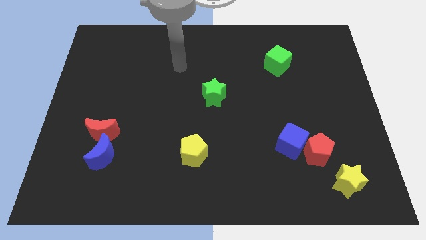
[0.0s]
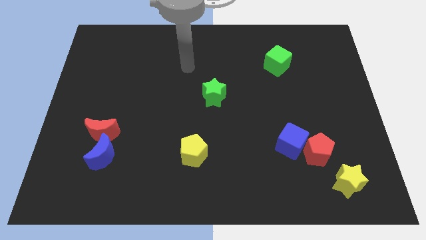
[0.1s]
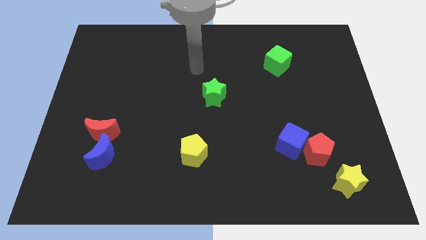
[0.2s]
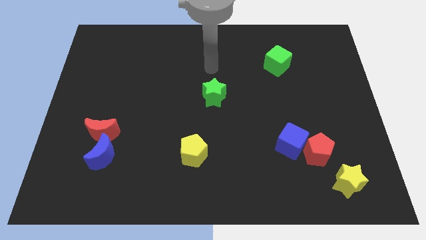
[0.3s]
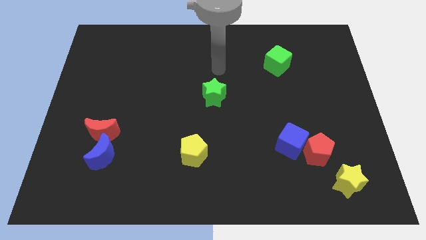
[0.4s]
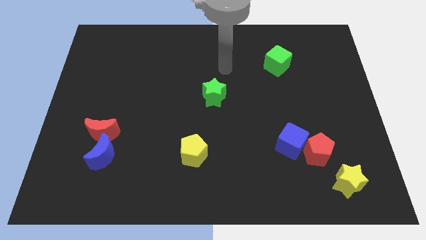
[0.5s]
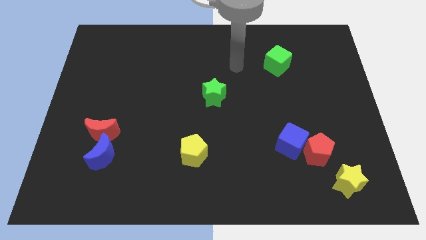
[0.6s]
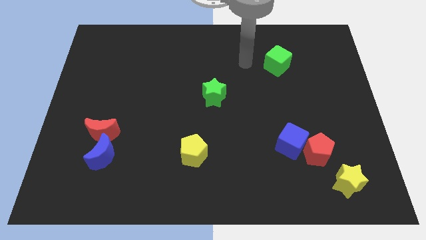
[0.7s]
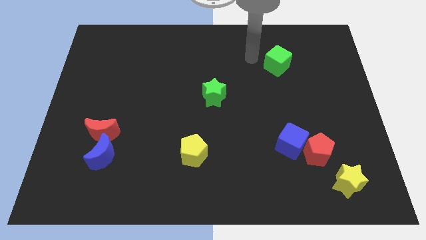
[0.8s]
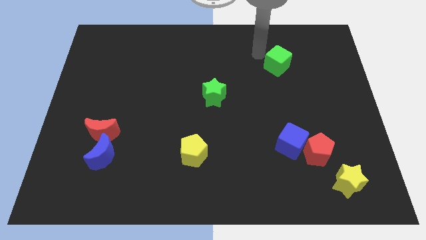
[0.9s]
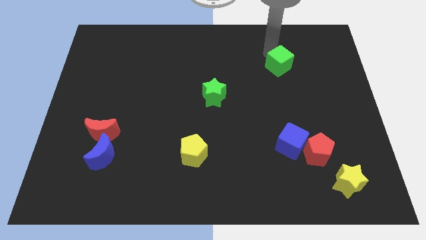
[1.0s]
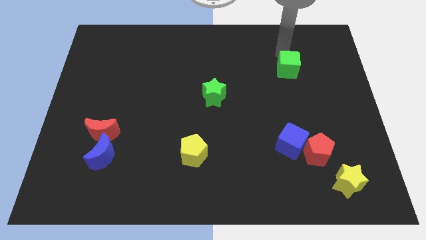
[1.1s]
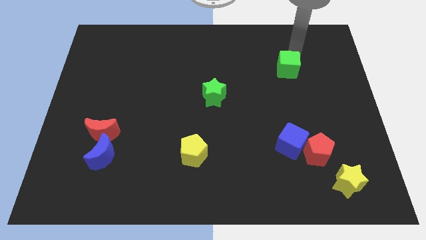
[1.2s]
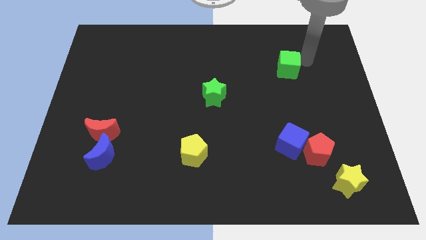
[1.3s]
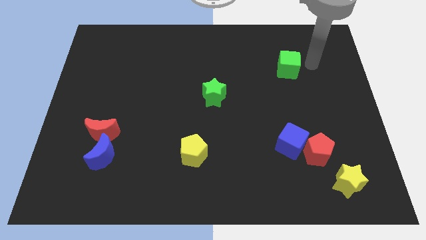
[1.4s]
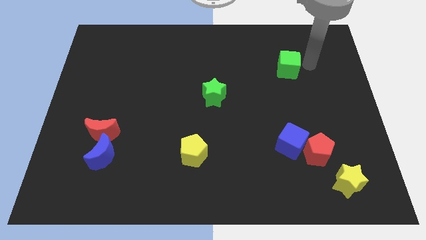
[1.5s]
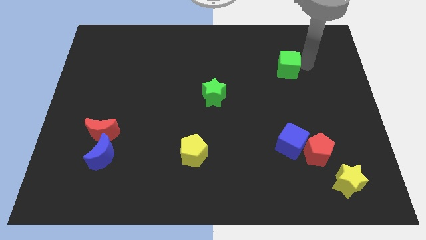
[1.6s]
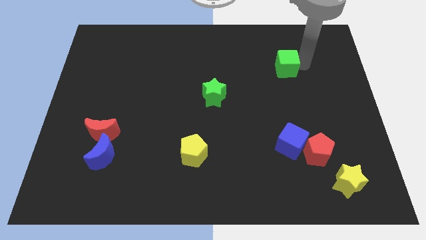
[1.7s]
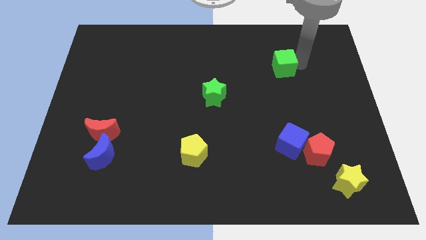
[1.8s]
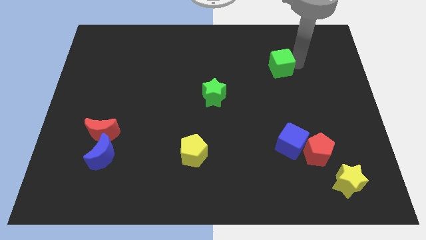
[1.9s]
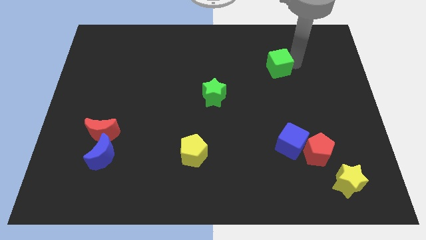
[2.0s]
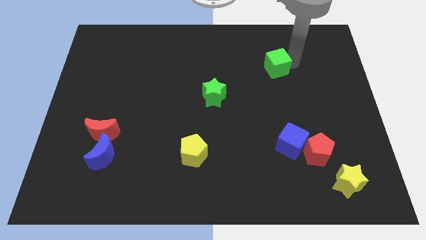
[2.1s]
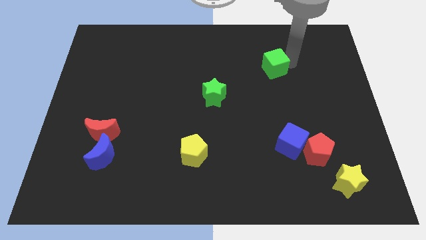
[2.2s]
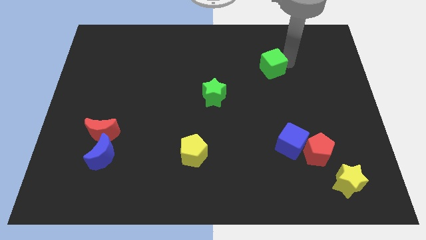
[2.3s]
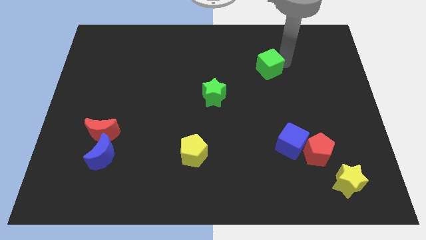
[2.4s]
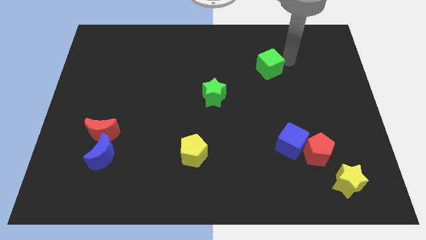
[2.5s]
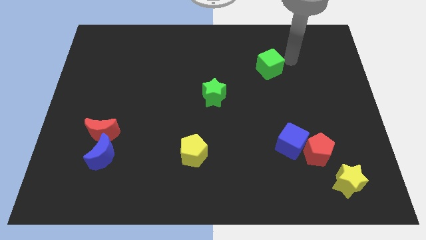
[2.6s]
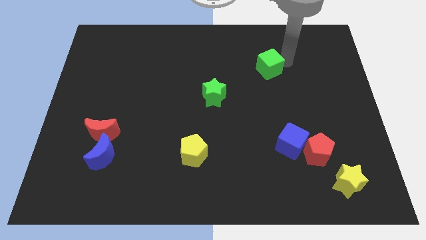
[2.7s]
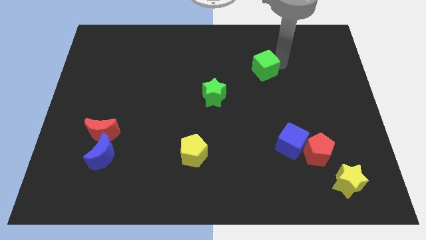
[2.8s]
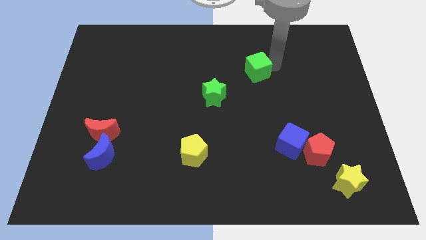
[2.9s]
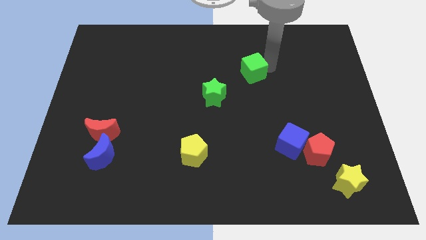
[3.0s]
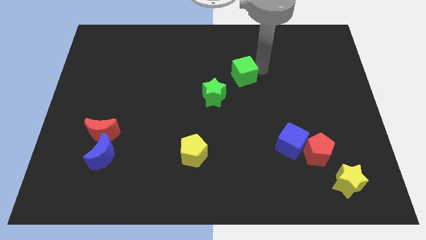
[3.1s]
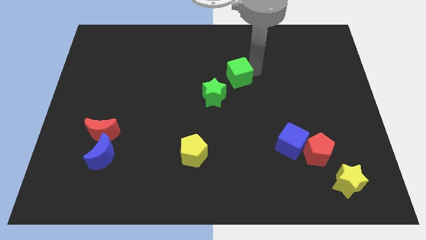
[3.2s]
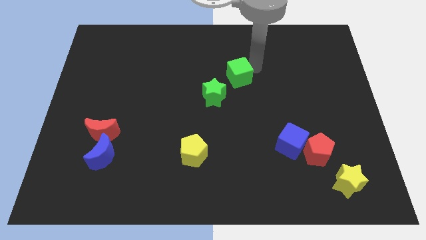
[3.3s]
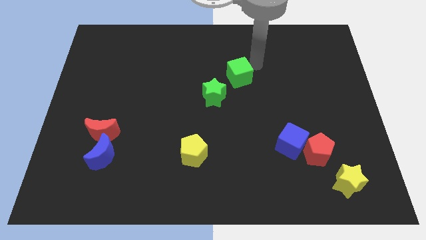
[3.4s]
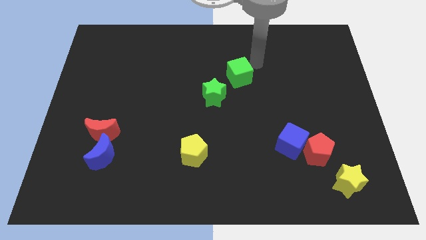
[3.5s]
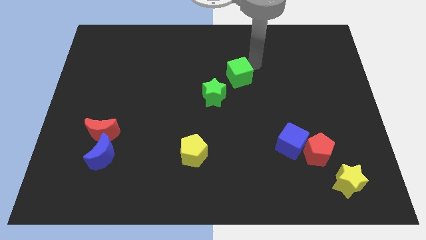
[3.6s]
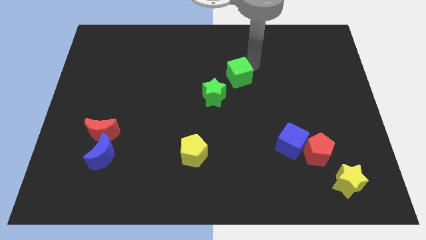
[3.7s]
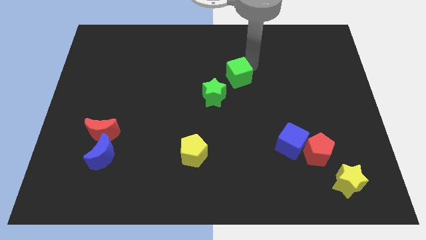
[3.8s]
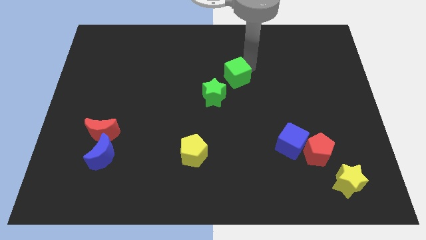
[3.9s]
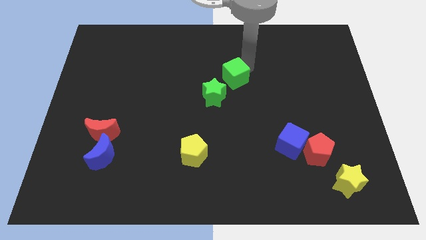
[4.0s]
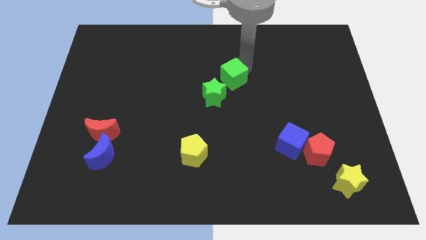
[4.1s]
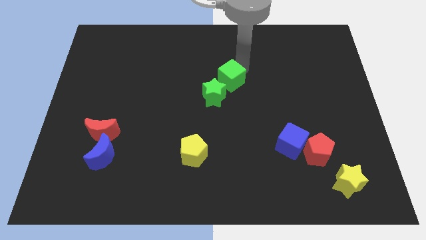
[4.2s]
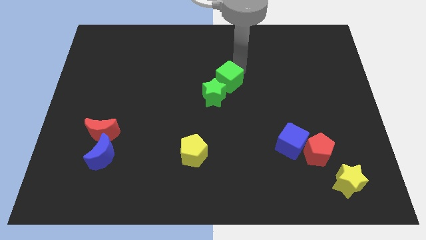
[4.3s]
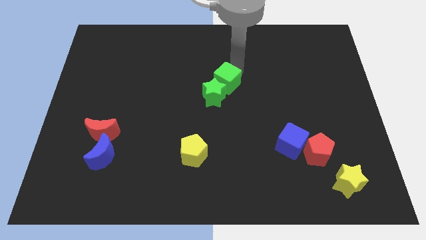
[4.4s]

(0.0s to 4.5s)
move the green cube next to the green star

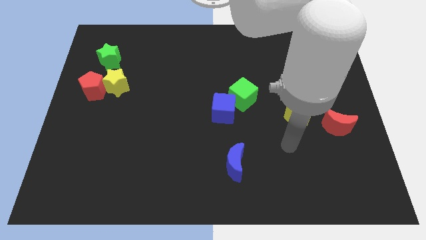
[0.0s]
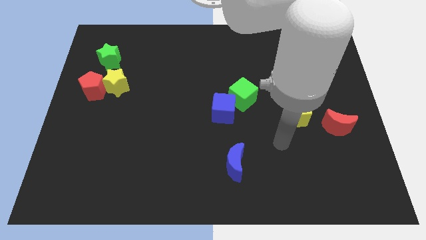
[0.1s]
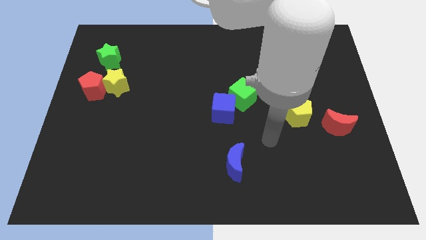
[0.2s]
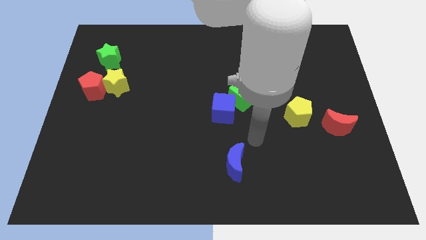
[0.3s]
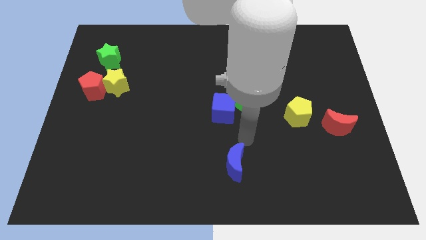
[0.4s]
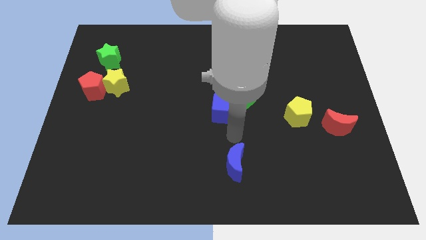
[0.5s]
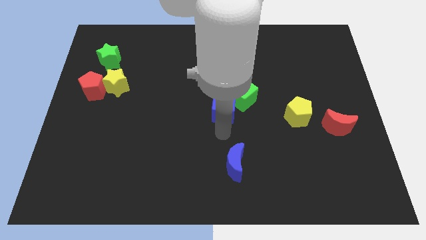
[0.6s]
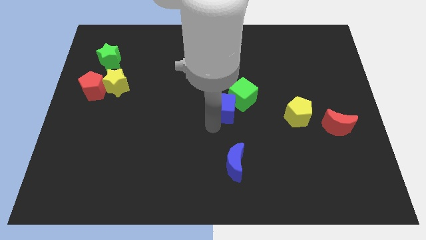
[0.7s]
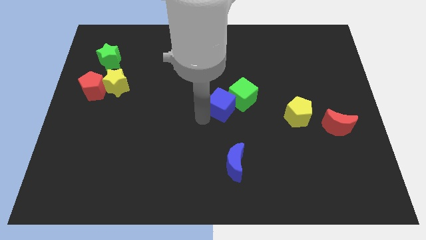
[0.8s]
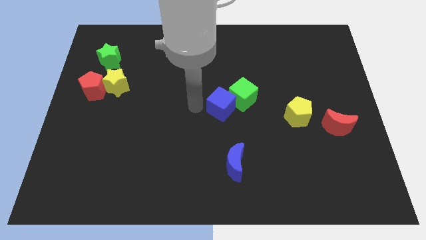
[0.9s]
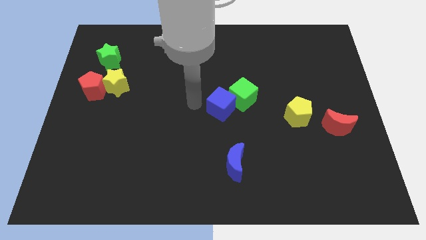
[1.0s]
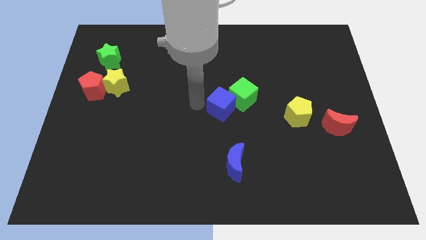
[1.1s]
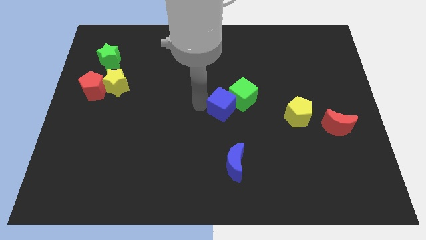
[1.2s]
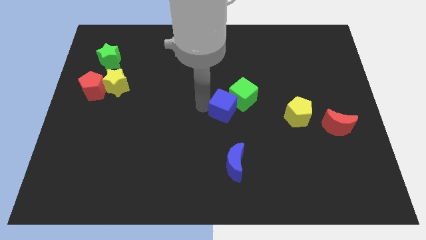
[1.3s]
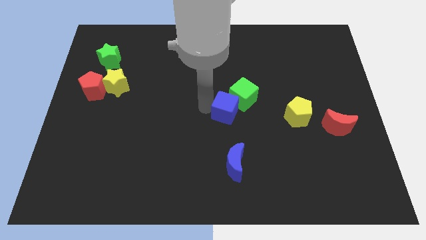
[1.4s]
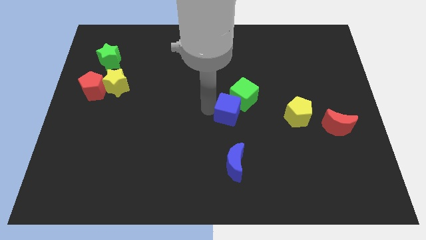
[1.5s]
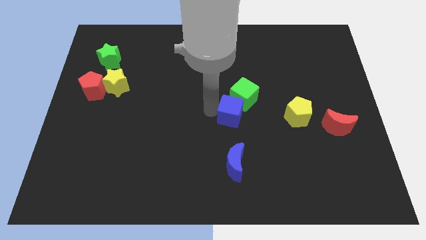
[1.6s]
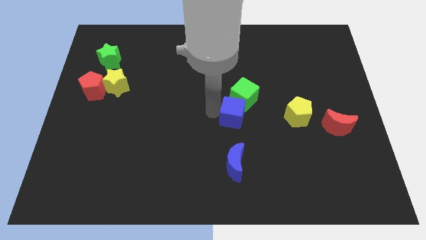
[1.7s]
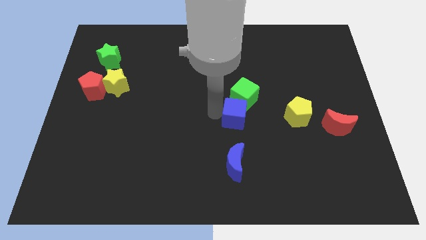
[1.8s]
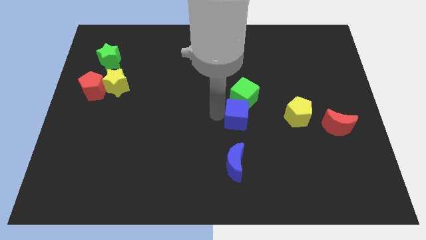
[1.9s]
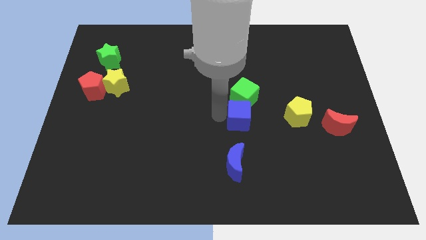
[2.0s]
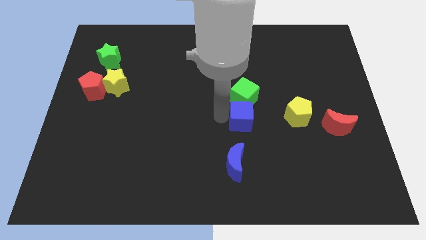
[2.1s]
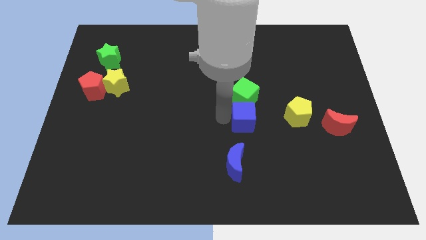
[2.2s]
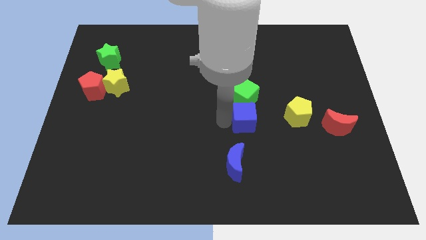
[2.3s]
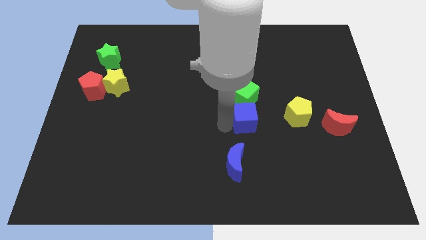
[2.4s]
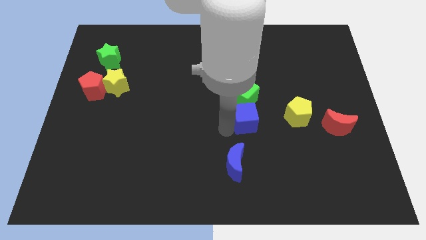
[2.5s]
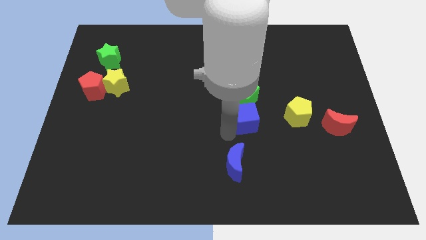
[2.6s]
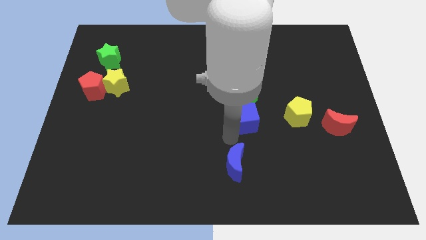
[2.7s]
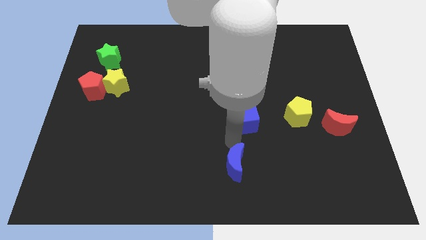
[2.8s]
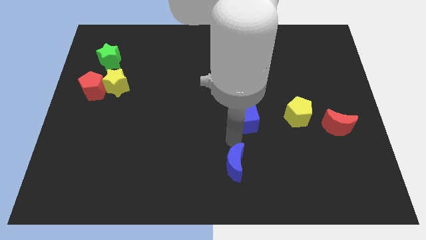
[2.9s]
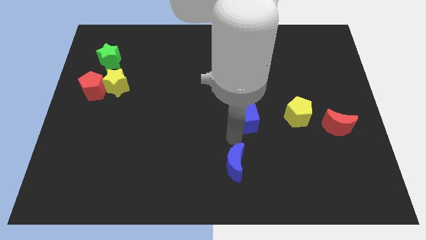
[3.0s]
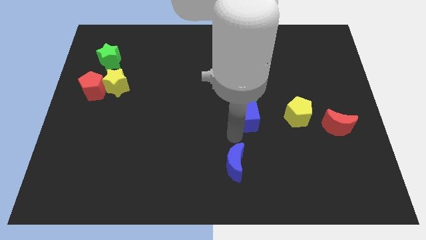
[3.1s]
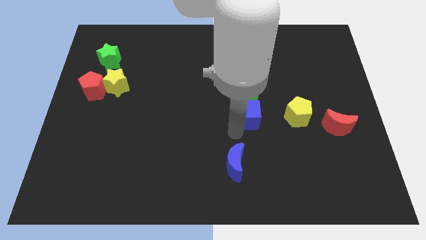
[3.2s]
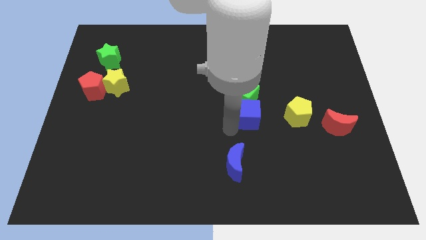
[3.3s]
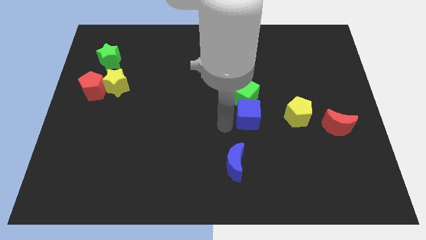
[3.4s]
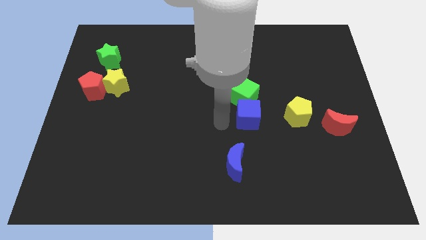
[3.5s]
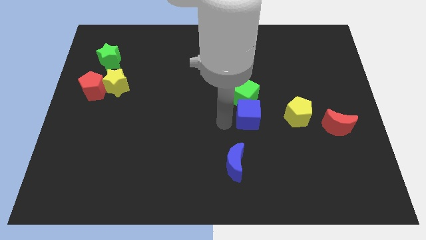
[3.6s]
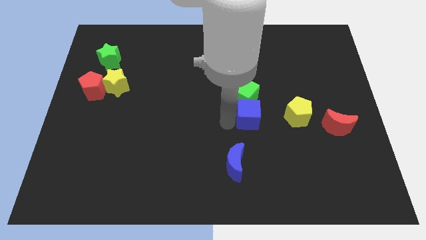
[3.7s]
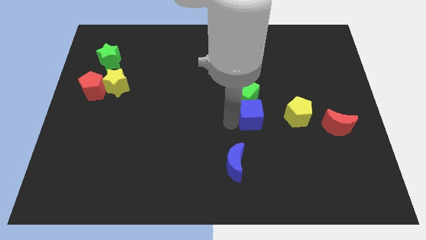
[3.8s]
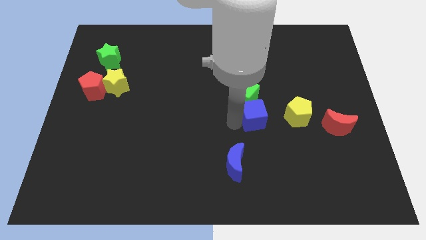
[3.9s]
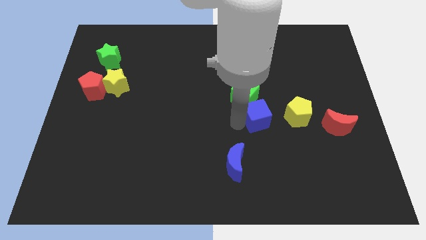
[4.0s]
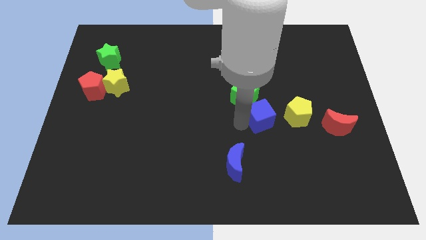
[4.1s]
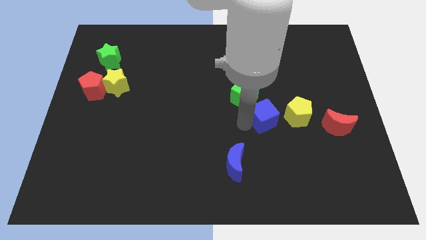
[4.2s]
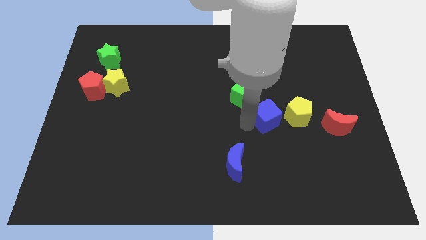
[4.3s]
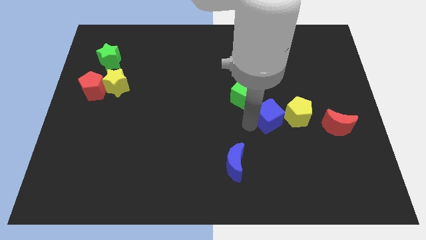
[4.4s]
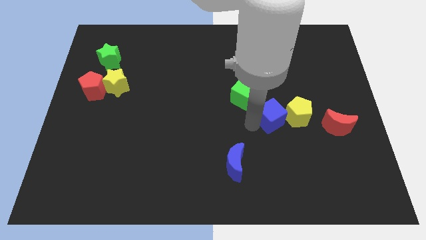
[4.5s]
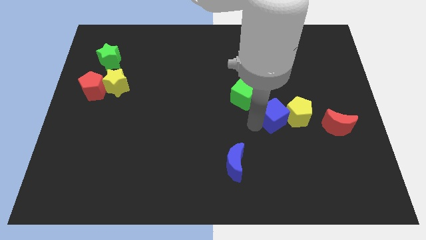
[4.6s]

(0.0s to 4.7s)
push the blue cube close to the yellow pentagon
